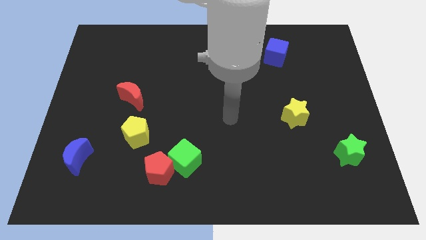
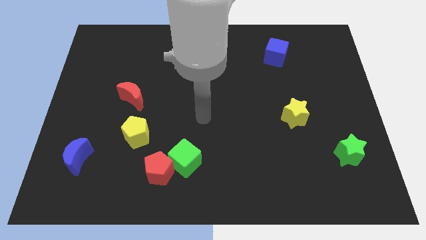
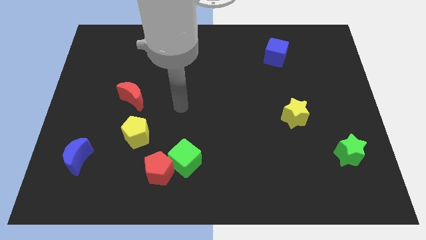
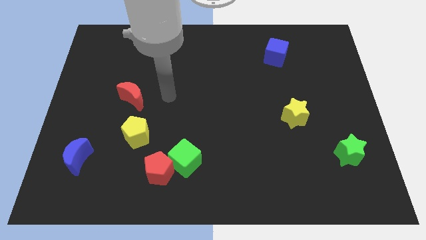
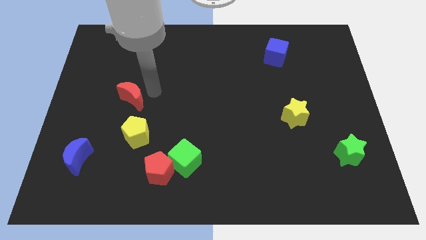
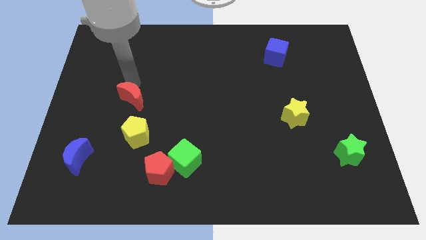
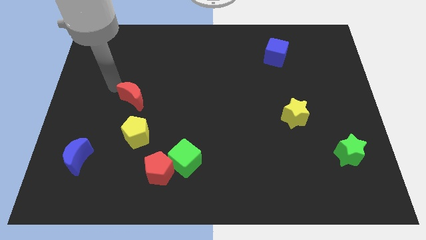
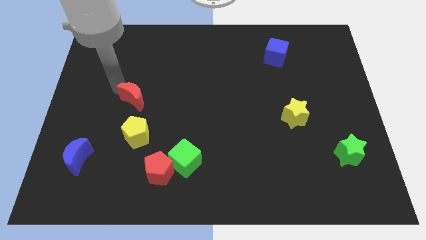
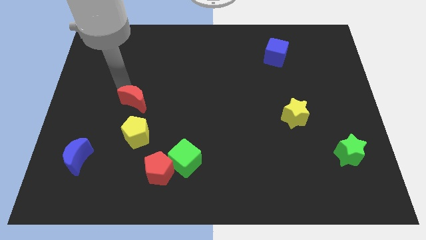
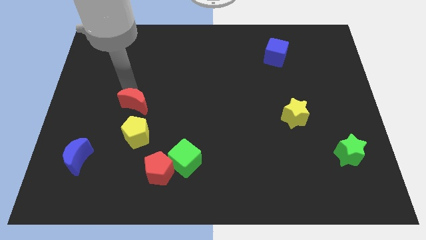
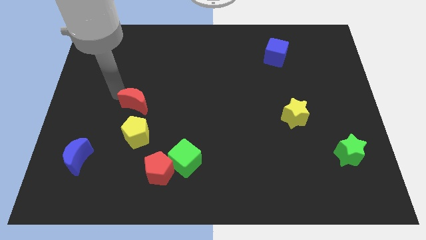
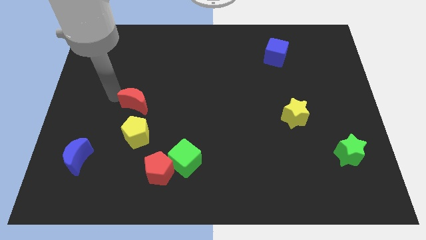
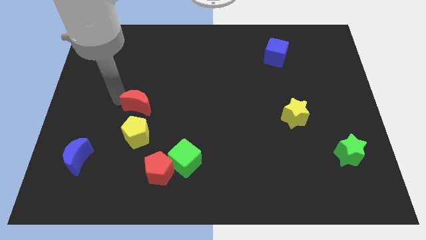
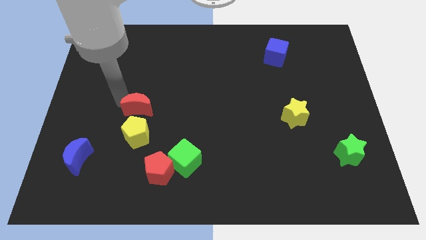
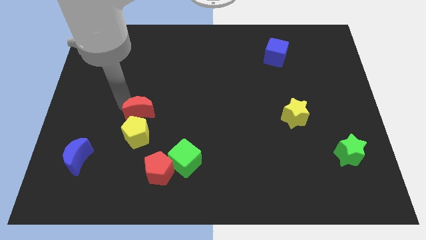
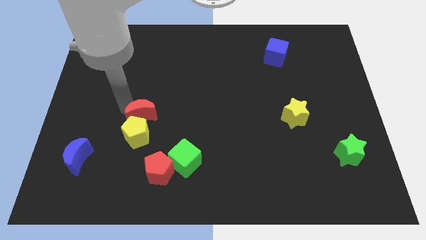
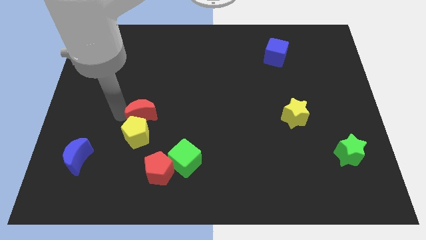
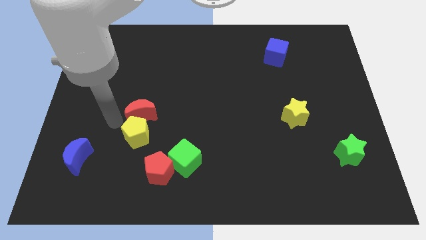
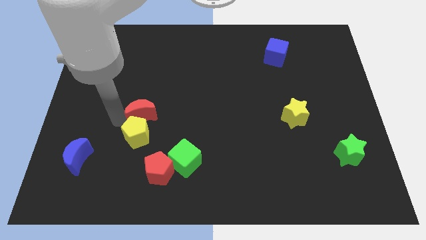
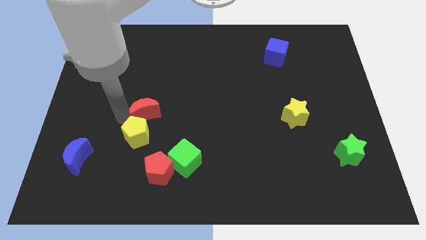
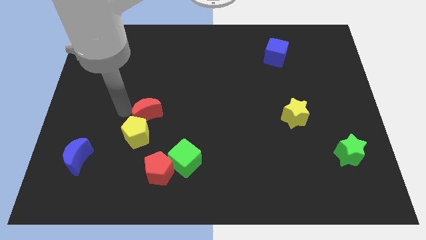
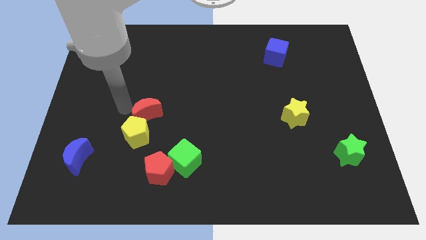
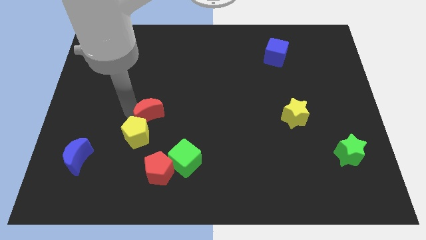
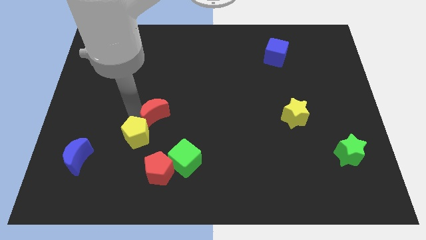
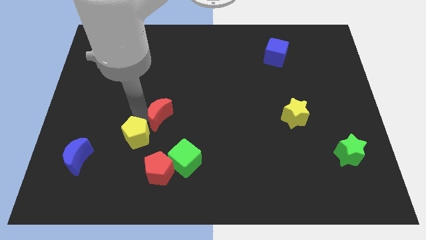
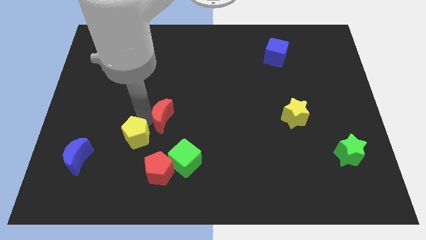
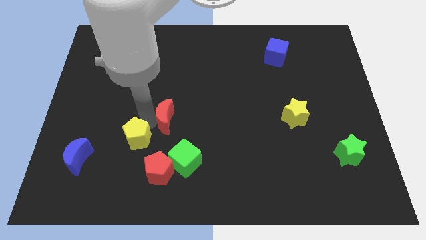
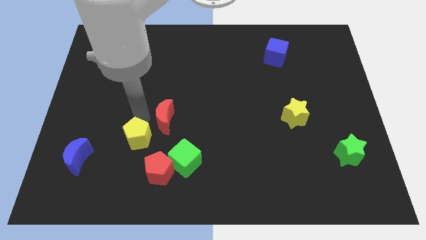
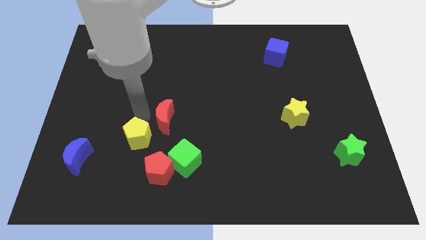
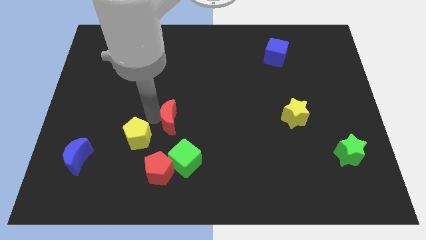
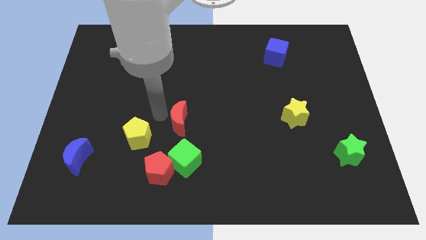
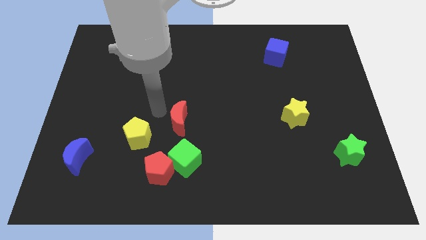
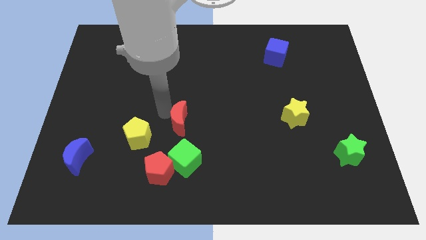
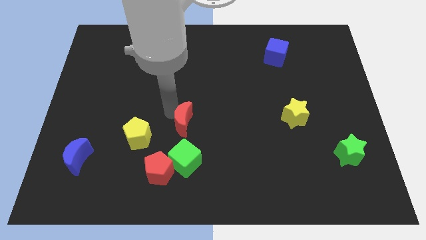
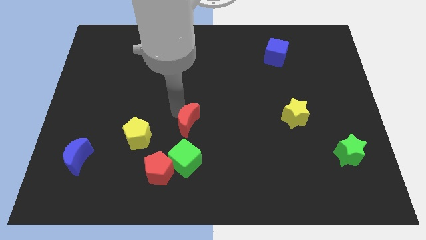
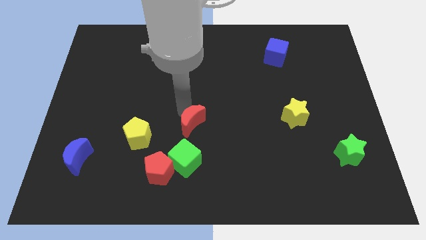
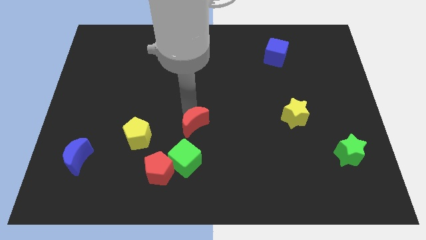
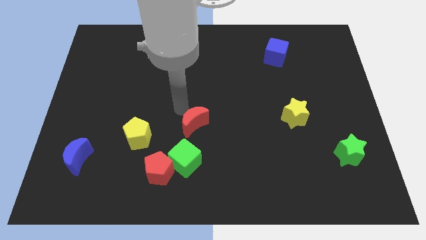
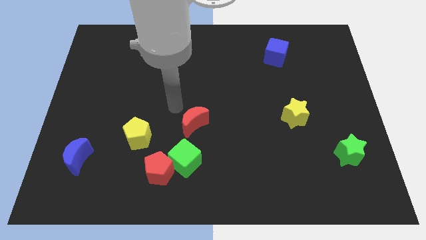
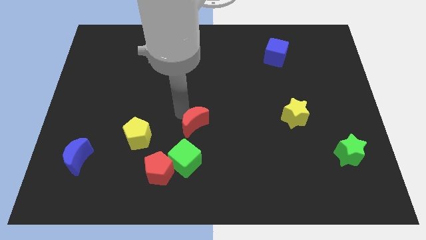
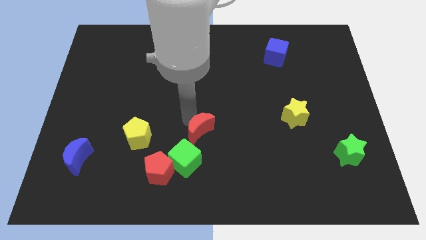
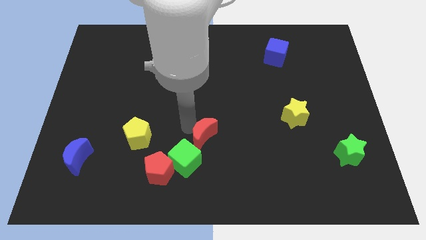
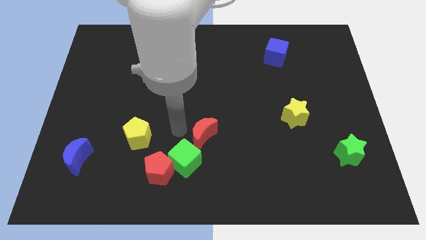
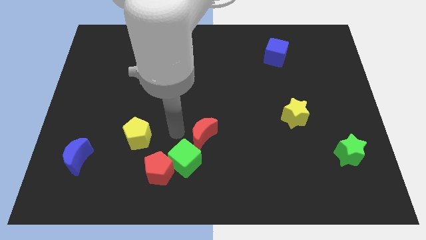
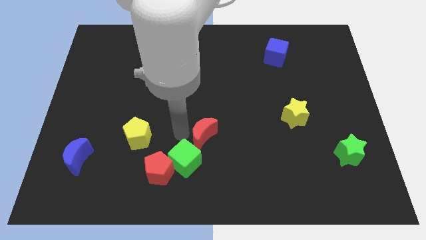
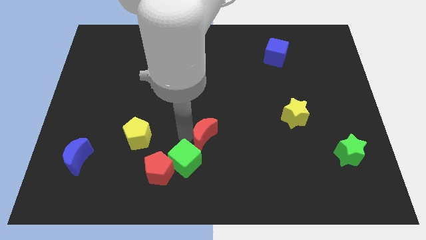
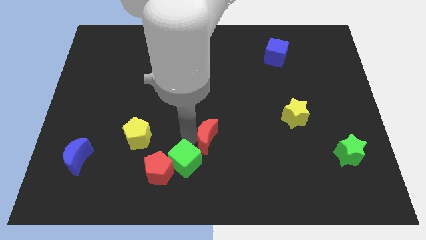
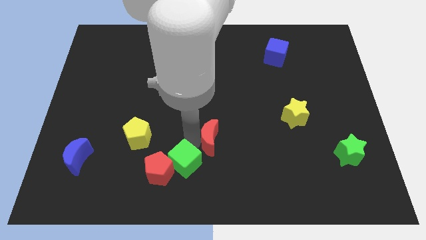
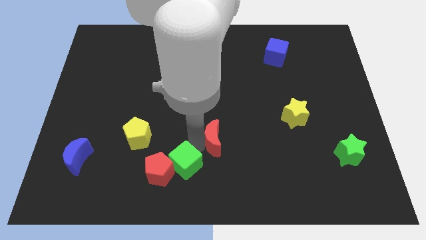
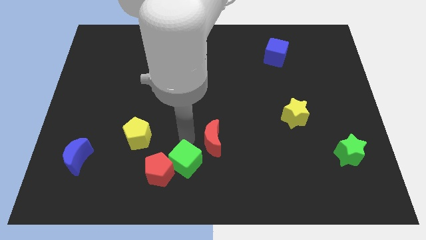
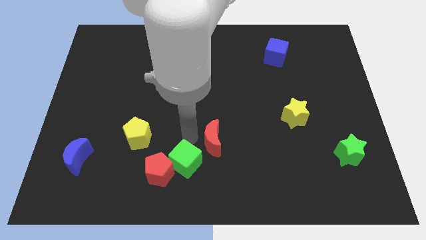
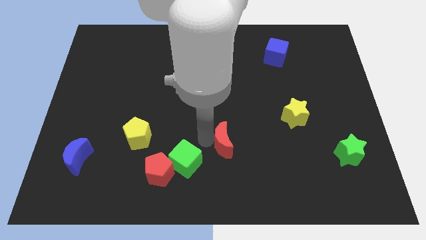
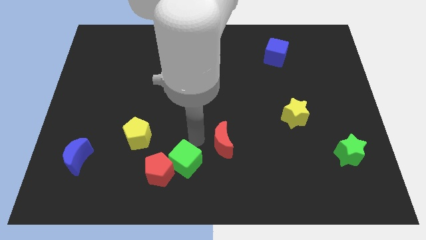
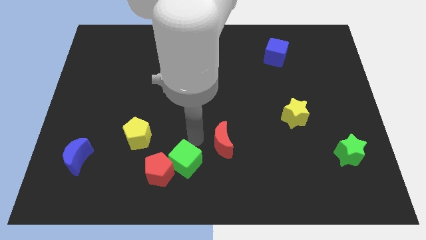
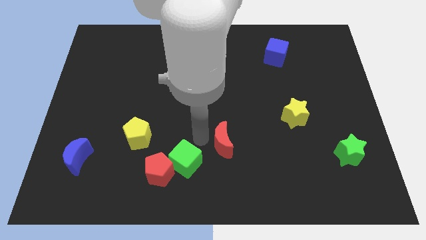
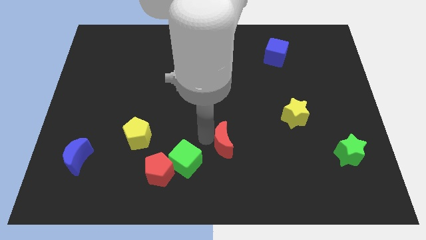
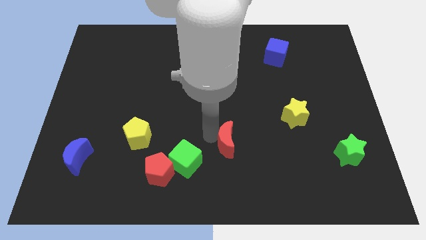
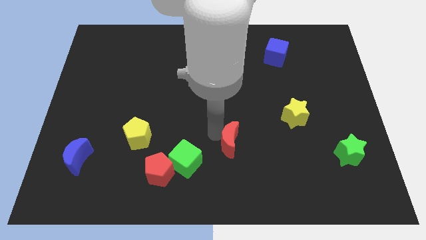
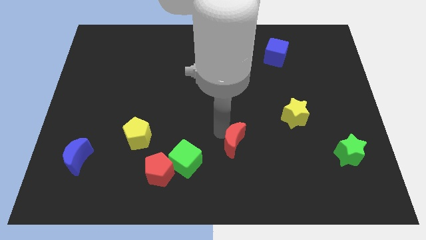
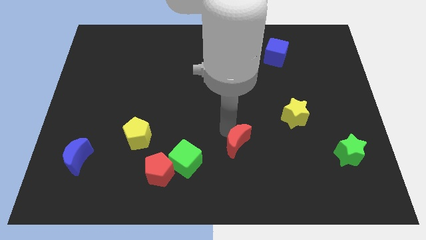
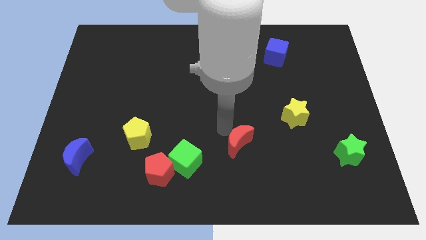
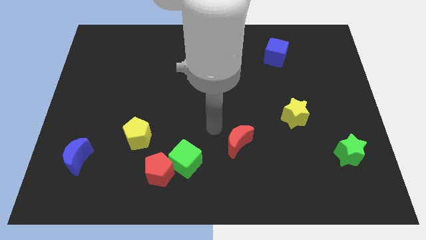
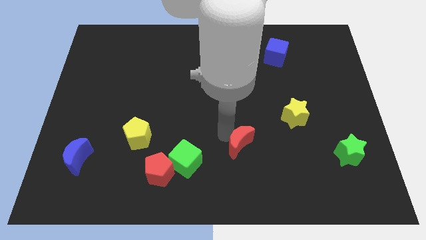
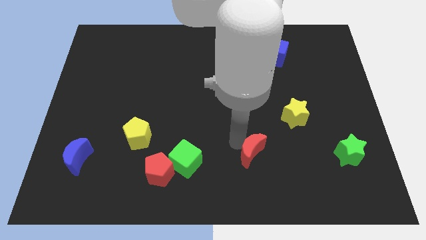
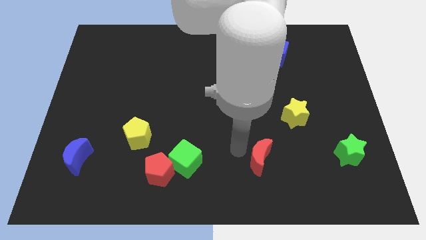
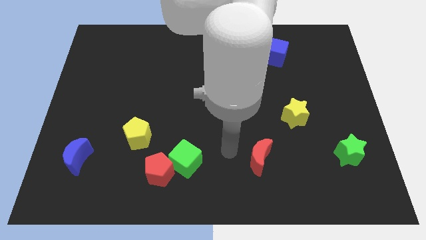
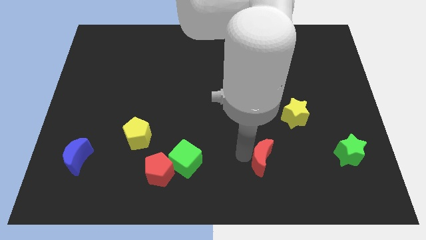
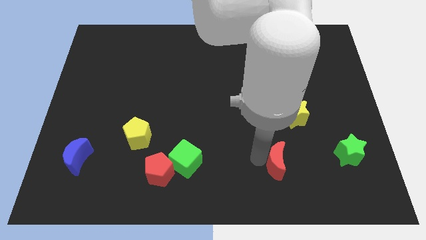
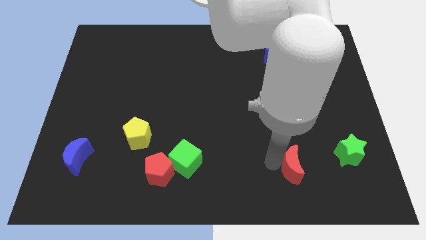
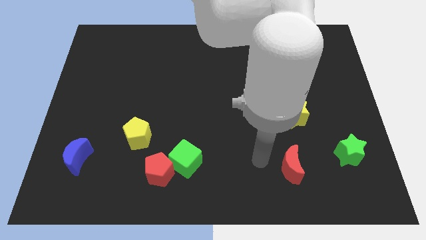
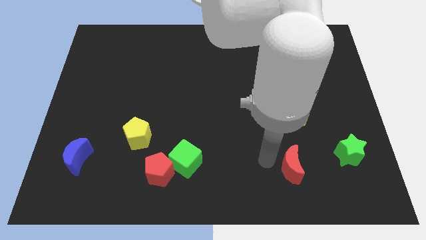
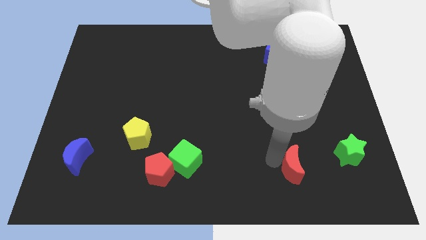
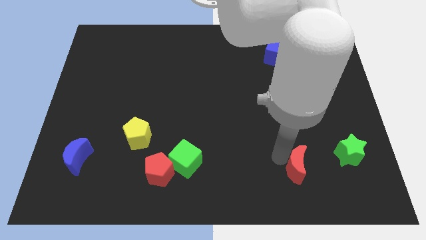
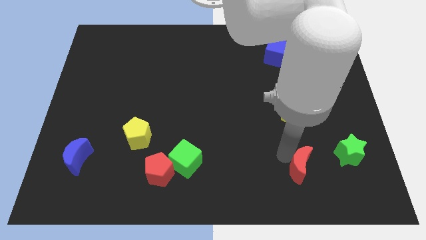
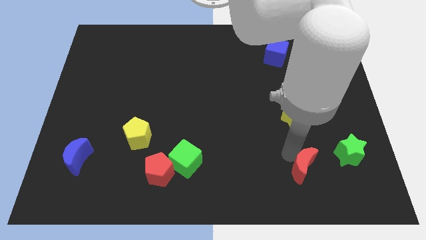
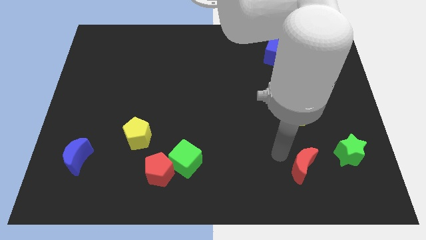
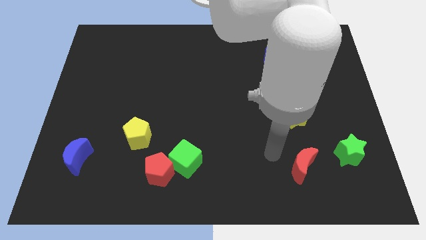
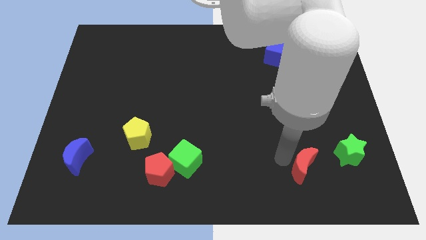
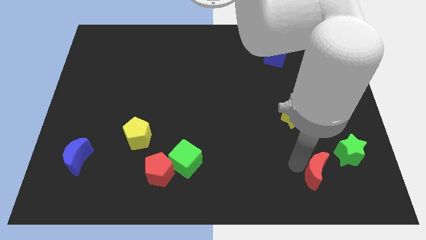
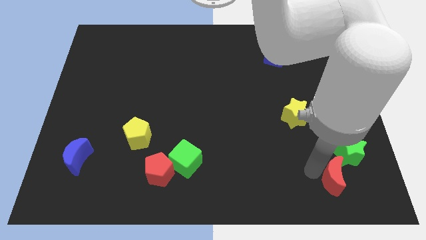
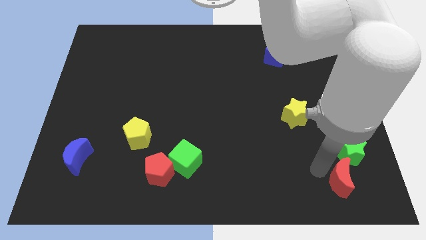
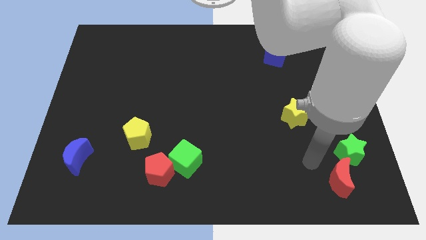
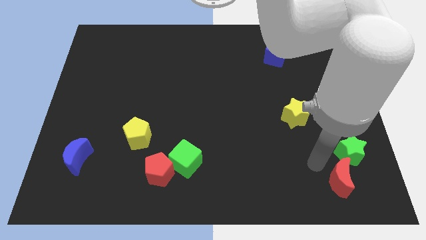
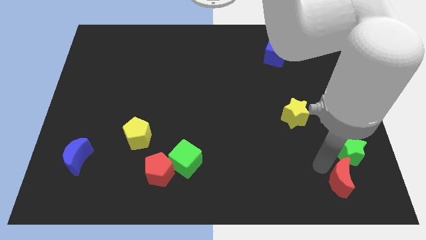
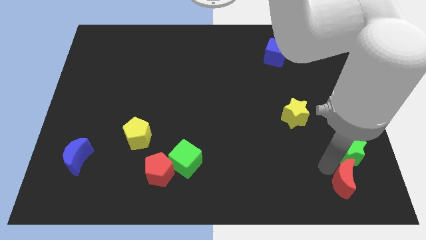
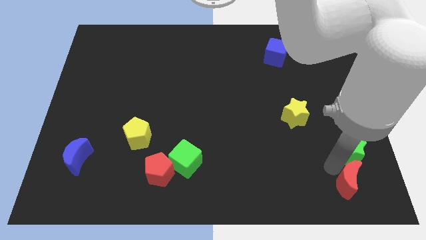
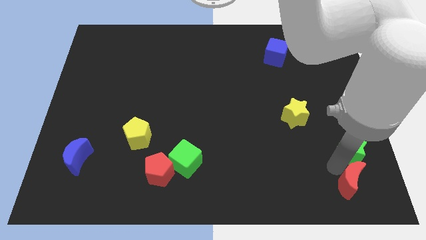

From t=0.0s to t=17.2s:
push the red moon to the bottom right
